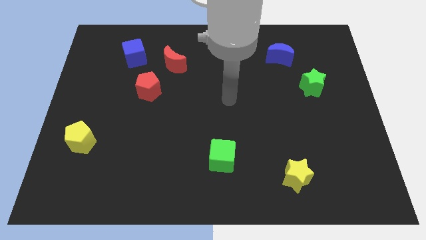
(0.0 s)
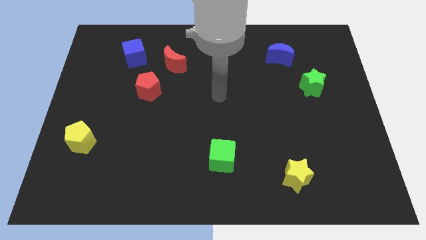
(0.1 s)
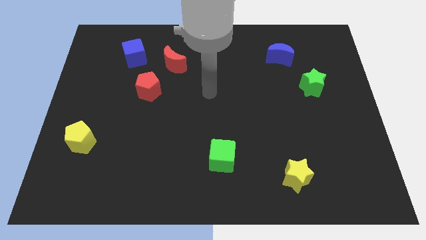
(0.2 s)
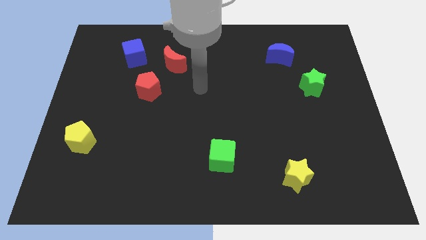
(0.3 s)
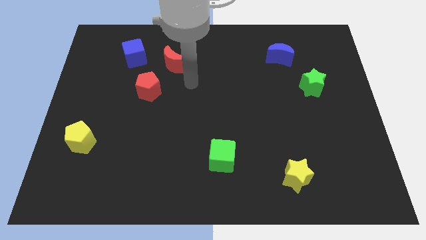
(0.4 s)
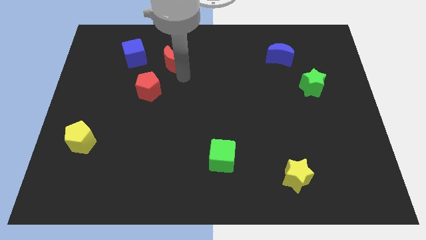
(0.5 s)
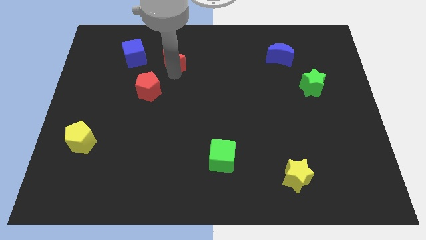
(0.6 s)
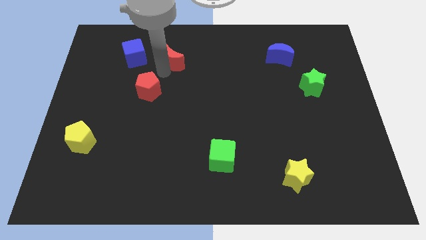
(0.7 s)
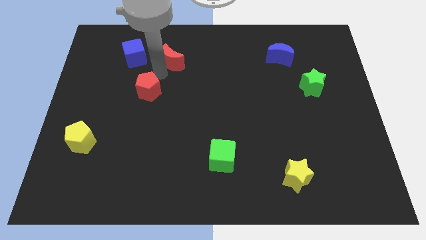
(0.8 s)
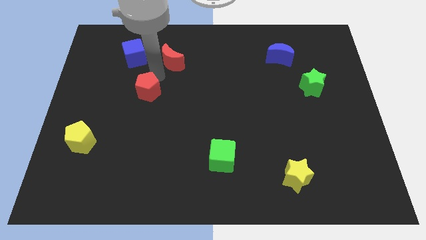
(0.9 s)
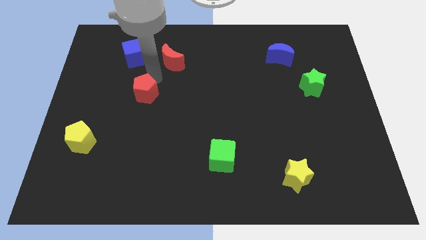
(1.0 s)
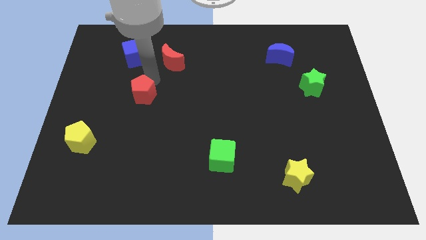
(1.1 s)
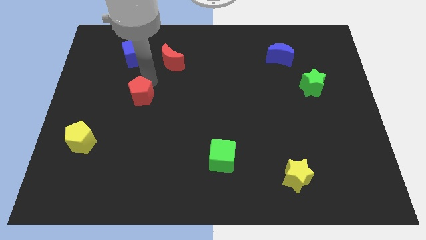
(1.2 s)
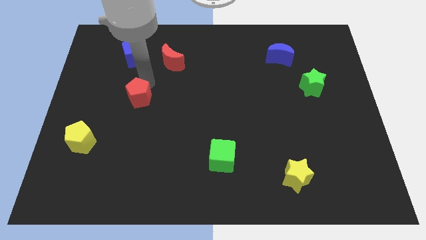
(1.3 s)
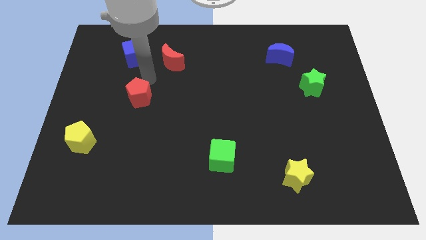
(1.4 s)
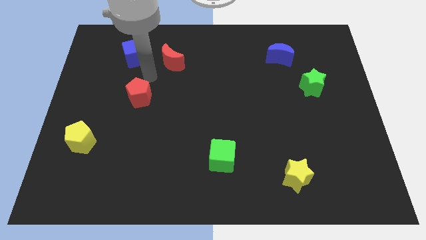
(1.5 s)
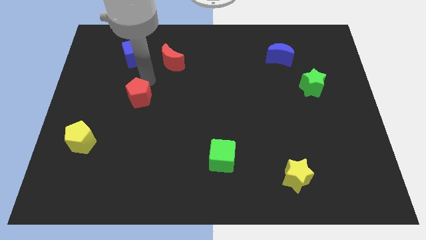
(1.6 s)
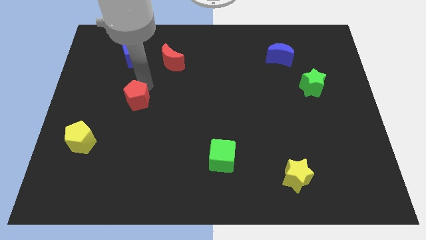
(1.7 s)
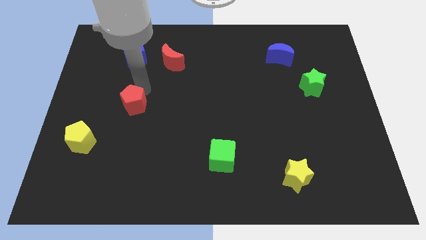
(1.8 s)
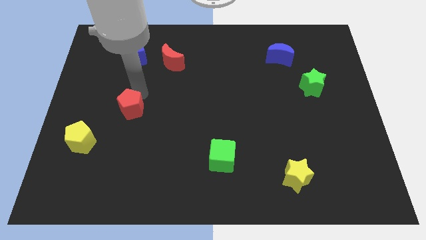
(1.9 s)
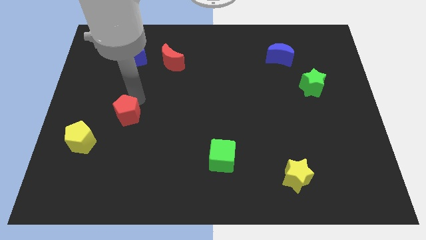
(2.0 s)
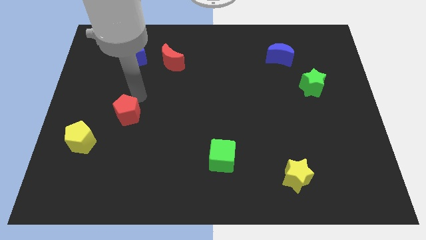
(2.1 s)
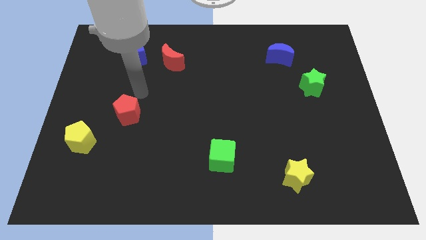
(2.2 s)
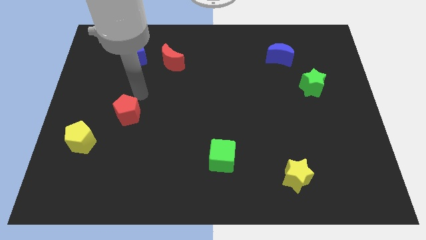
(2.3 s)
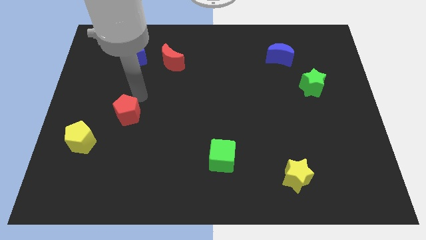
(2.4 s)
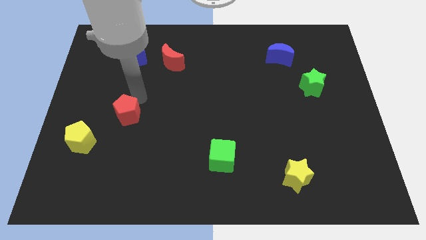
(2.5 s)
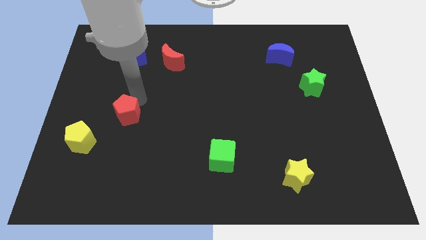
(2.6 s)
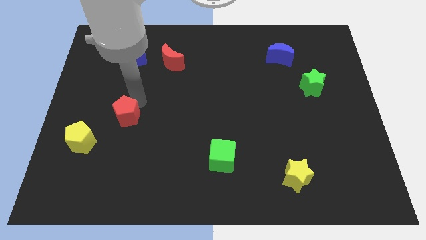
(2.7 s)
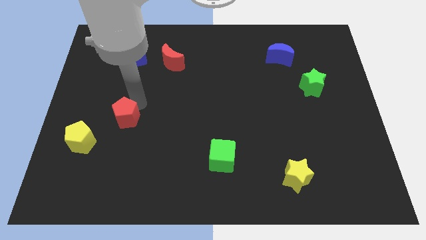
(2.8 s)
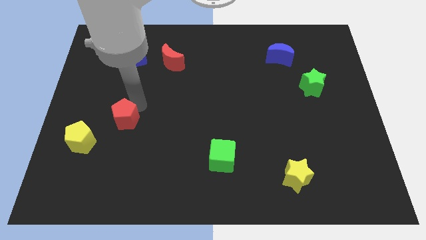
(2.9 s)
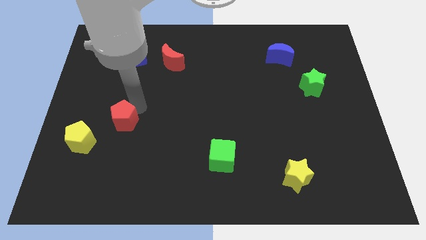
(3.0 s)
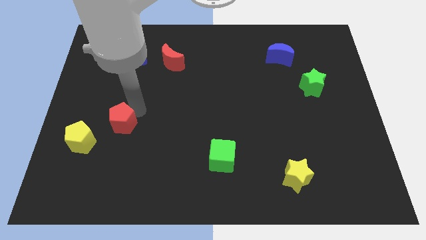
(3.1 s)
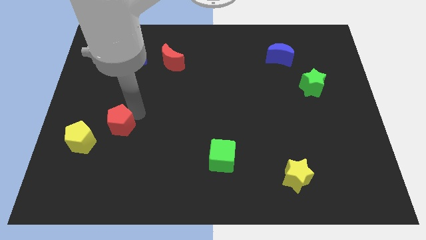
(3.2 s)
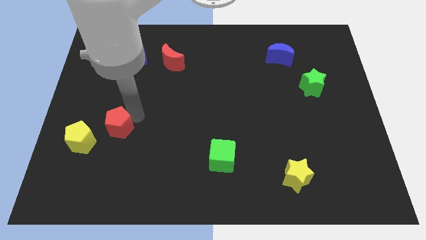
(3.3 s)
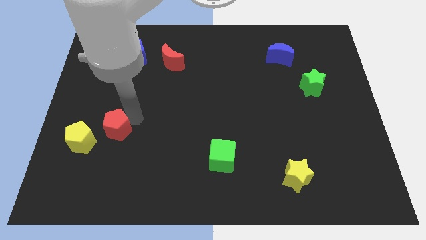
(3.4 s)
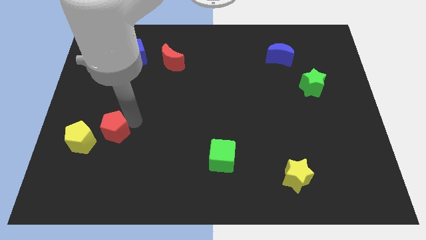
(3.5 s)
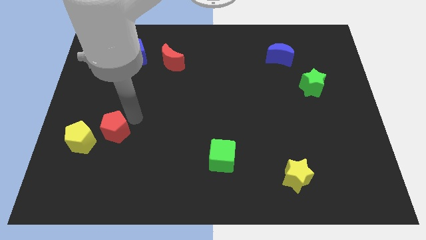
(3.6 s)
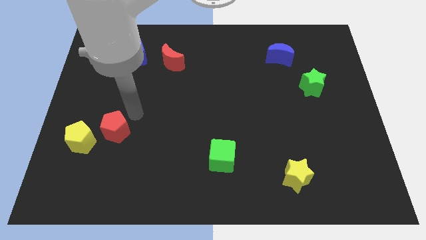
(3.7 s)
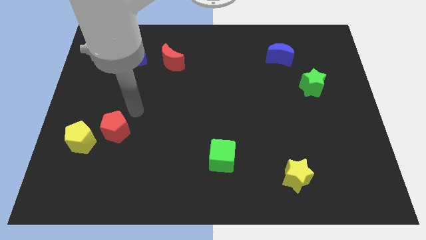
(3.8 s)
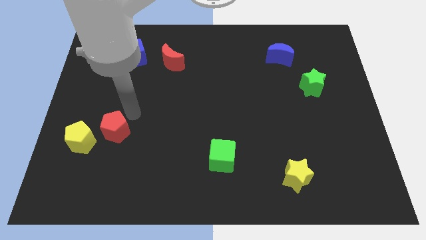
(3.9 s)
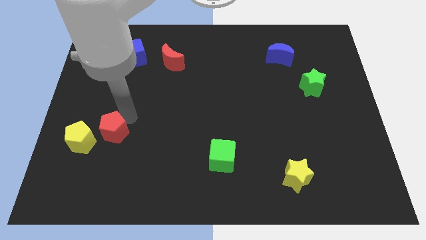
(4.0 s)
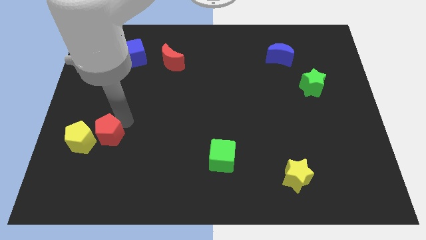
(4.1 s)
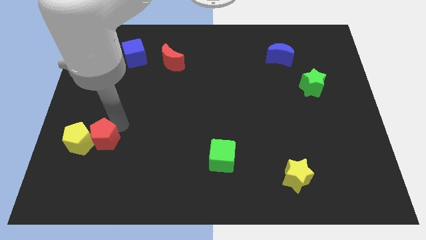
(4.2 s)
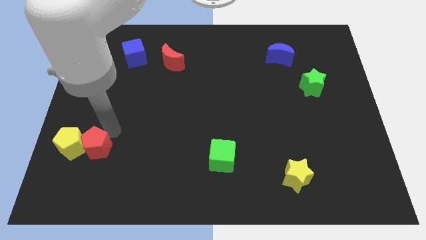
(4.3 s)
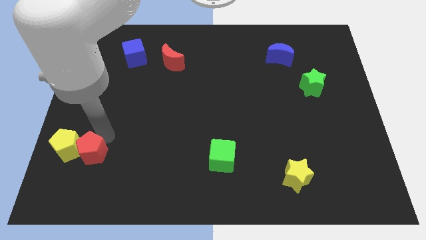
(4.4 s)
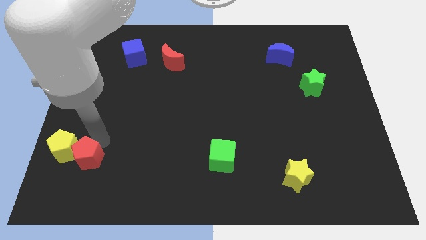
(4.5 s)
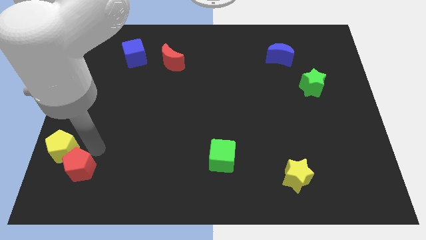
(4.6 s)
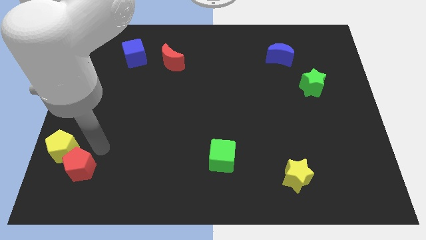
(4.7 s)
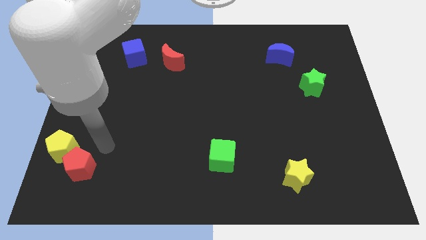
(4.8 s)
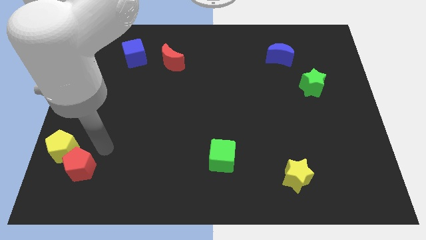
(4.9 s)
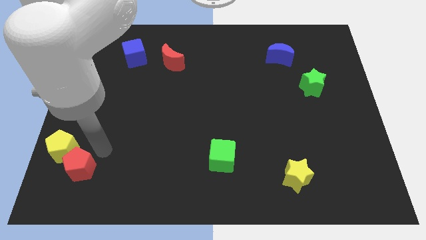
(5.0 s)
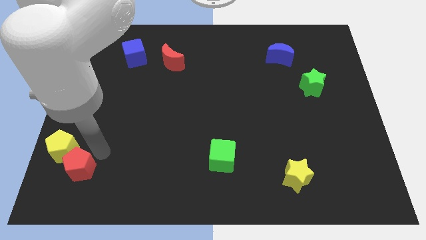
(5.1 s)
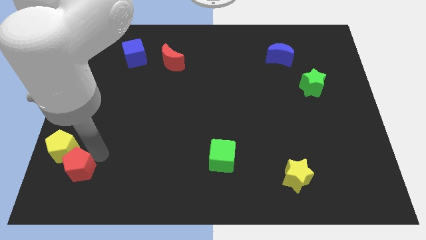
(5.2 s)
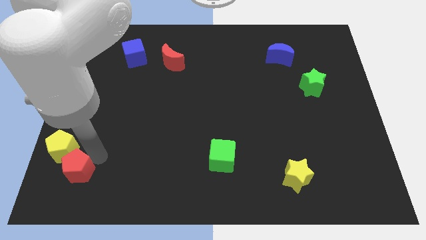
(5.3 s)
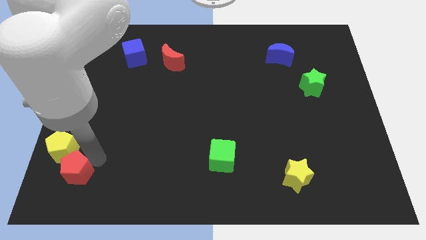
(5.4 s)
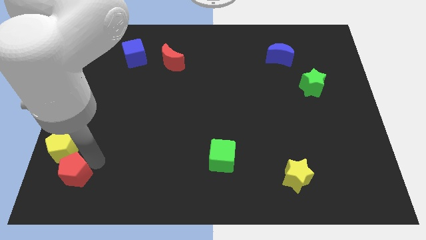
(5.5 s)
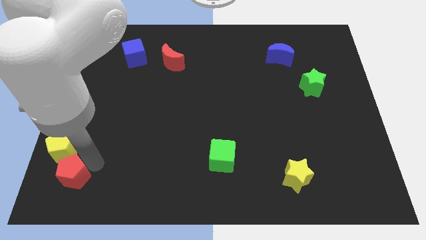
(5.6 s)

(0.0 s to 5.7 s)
put the red pentagon to the lower left corner

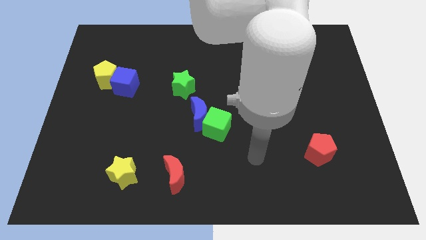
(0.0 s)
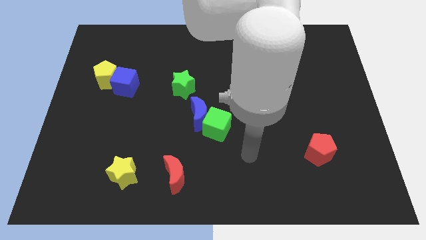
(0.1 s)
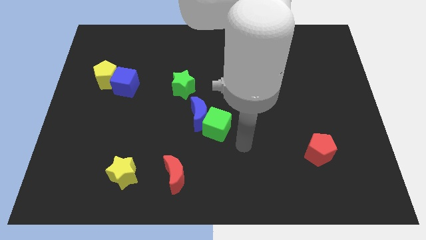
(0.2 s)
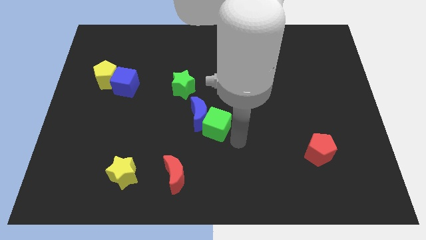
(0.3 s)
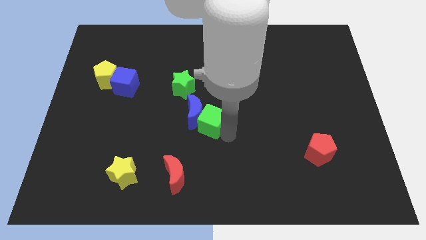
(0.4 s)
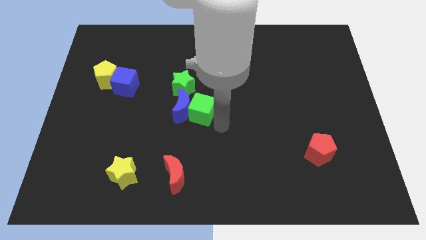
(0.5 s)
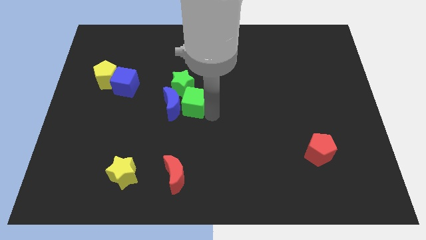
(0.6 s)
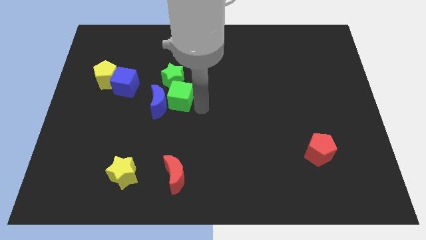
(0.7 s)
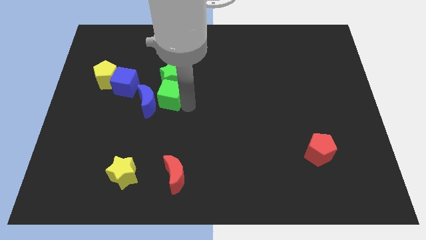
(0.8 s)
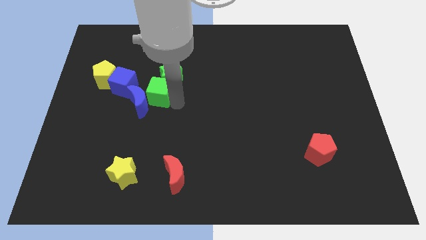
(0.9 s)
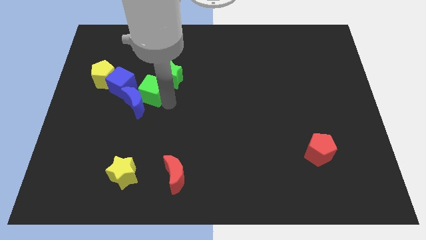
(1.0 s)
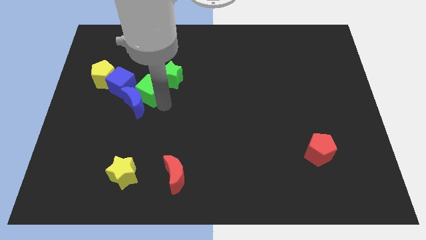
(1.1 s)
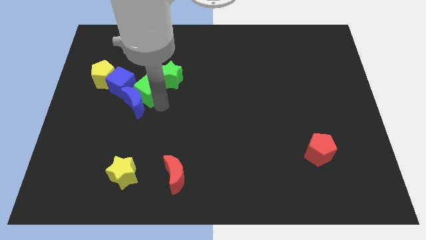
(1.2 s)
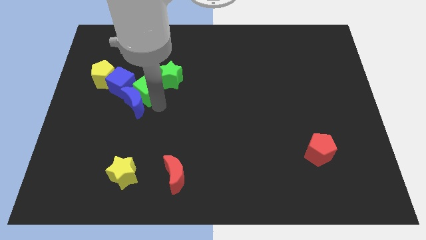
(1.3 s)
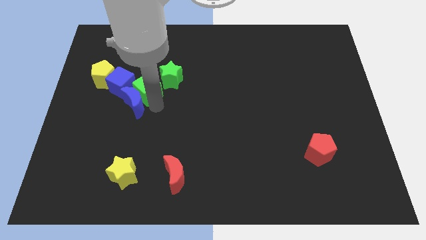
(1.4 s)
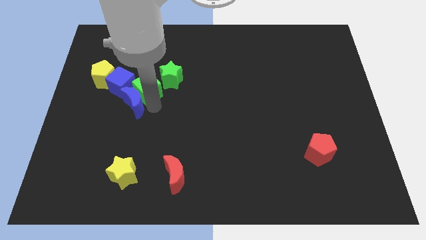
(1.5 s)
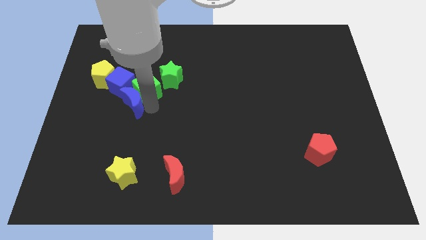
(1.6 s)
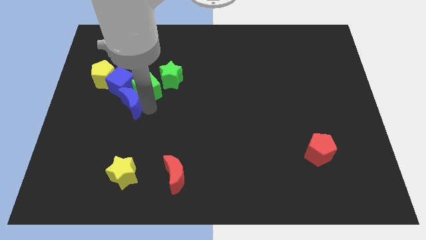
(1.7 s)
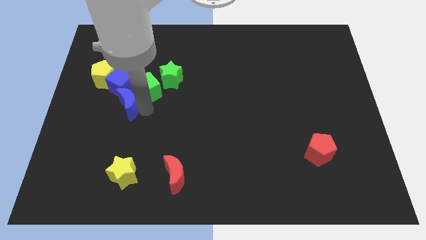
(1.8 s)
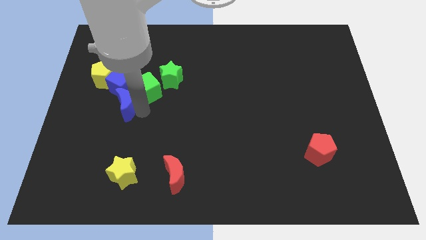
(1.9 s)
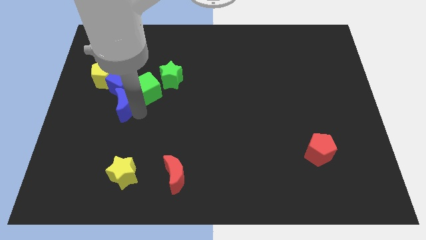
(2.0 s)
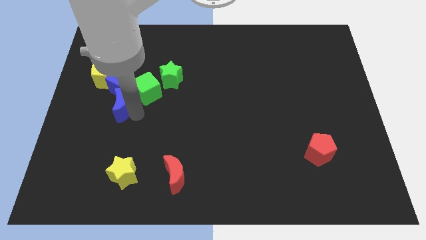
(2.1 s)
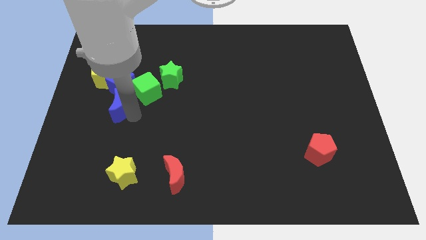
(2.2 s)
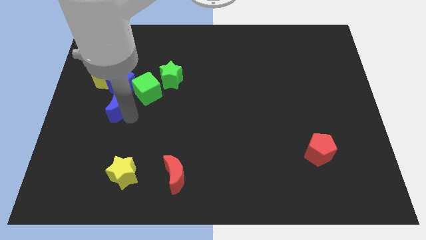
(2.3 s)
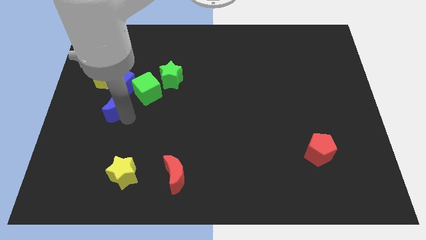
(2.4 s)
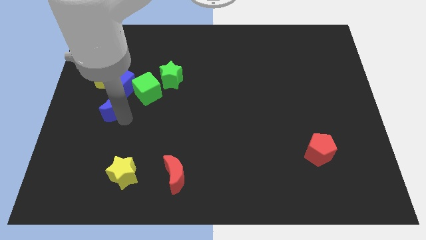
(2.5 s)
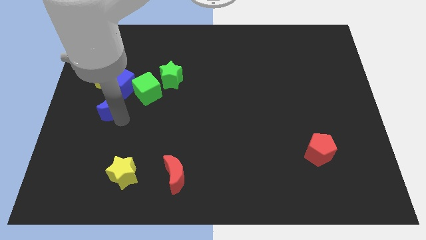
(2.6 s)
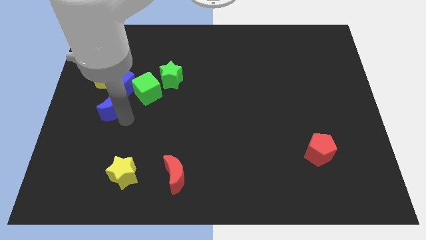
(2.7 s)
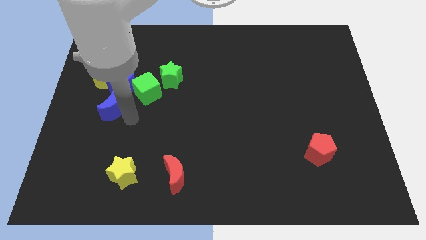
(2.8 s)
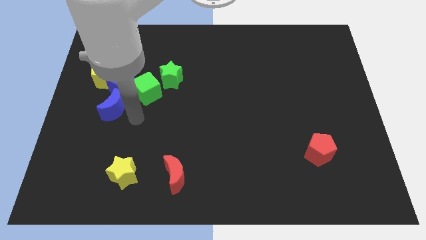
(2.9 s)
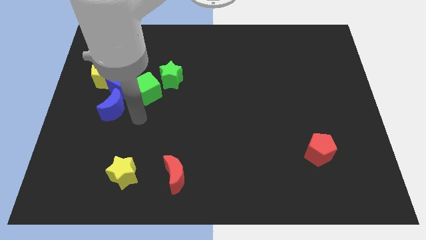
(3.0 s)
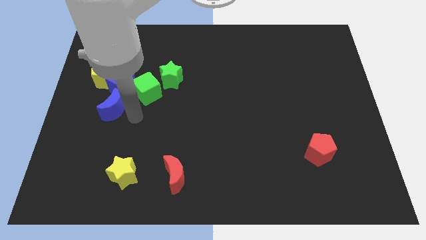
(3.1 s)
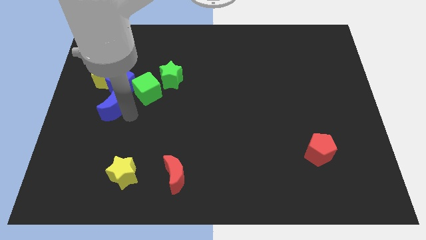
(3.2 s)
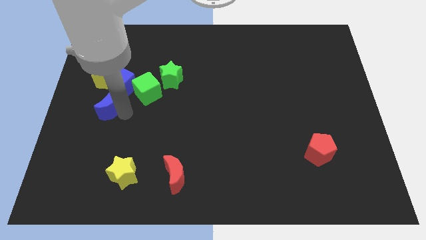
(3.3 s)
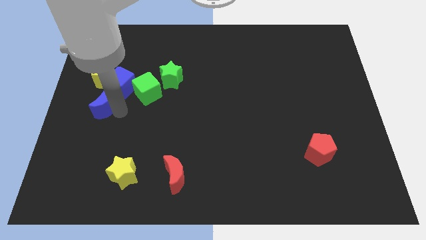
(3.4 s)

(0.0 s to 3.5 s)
push the blue moon to the center left
